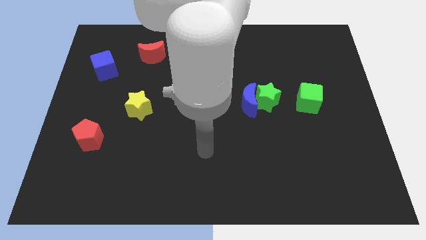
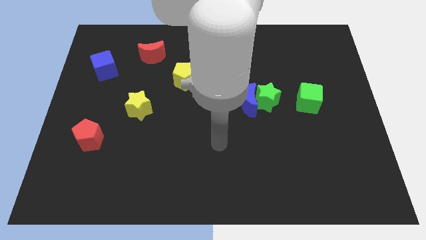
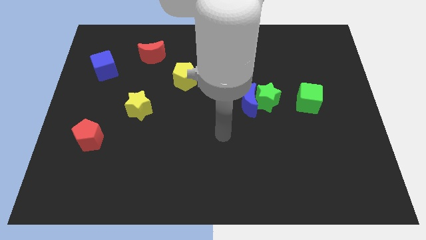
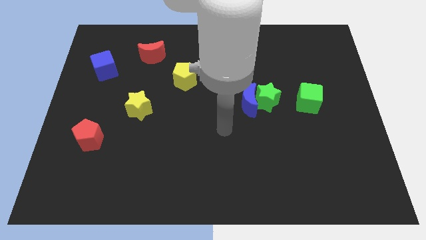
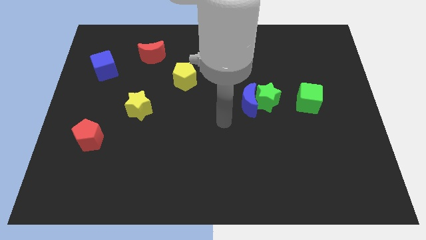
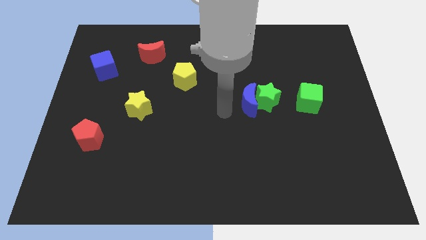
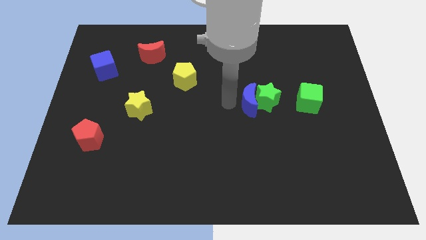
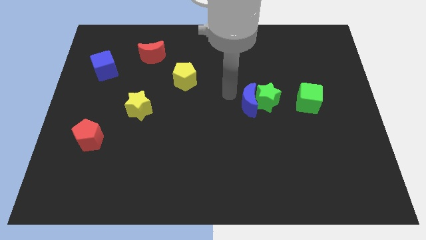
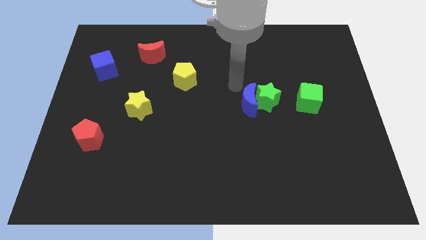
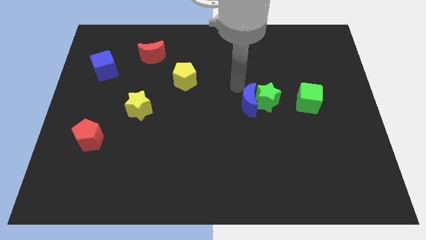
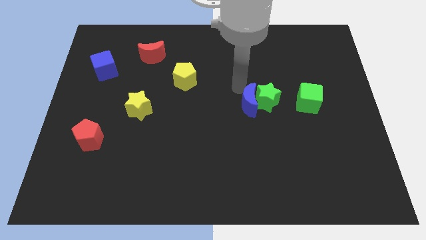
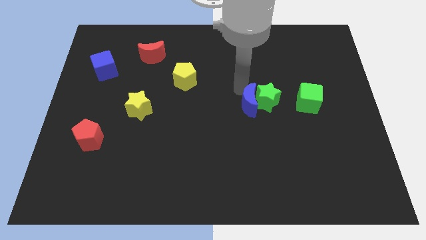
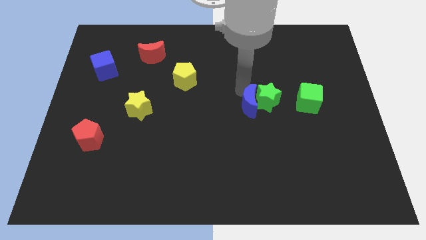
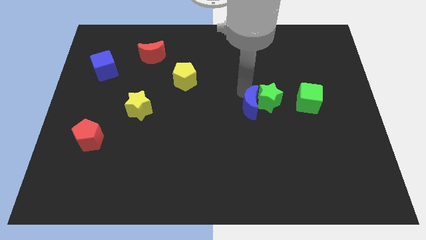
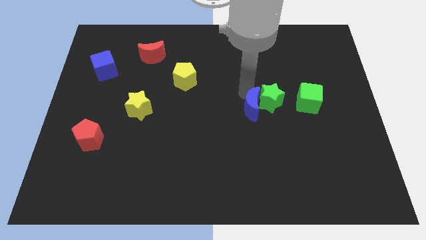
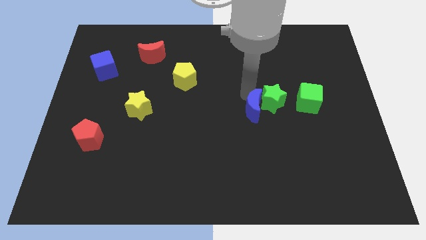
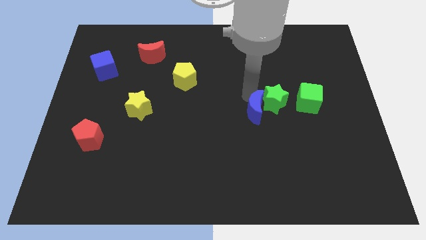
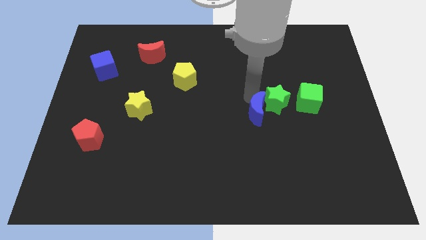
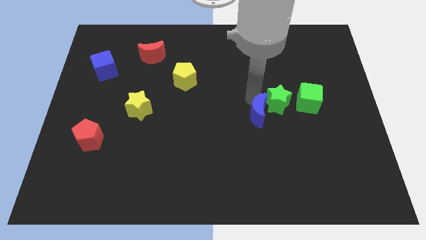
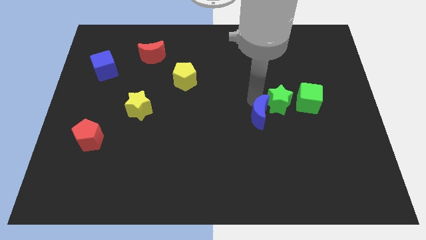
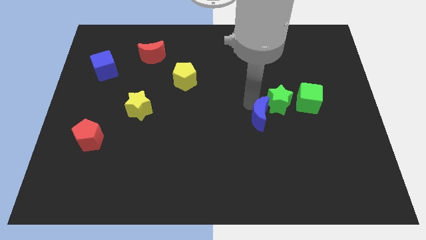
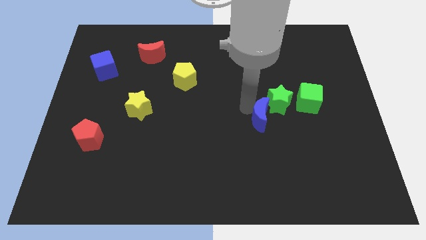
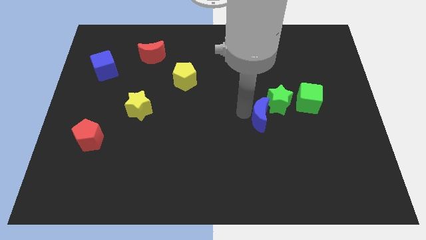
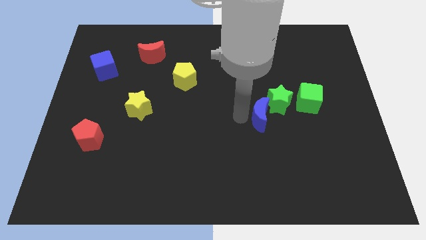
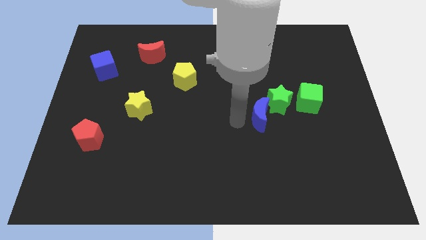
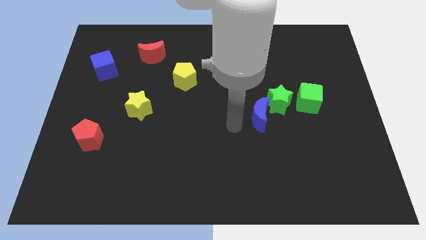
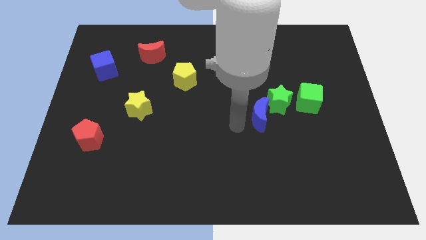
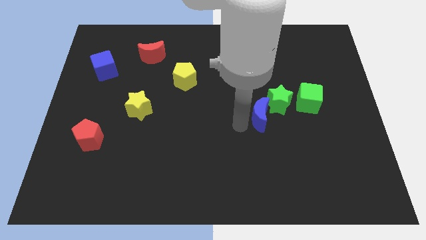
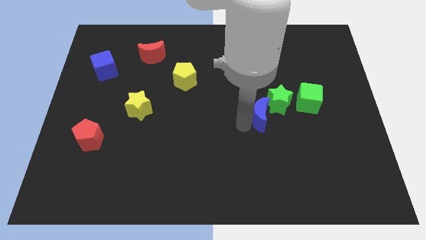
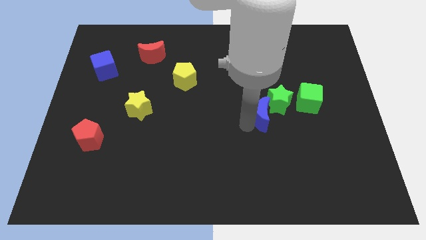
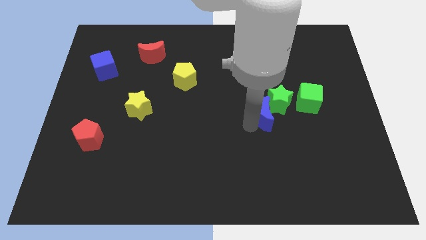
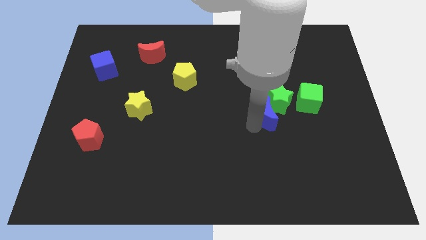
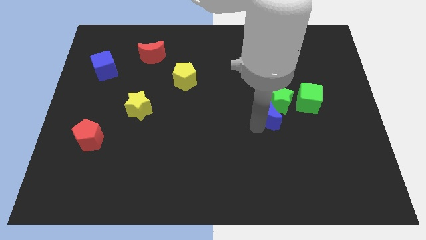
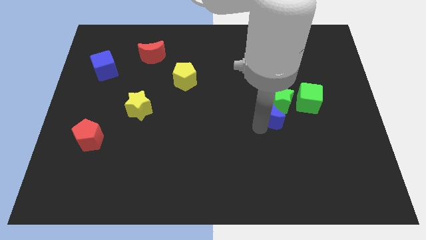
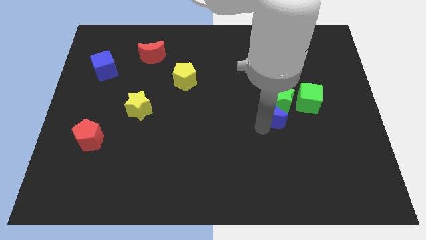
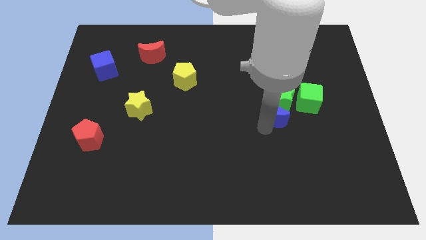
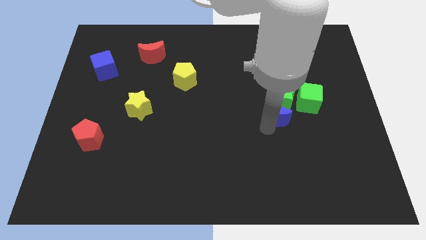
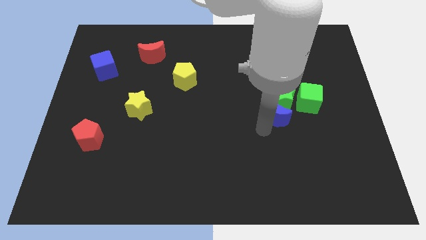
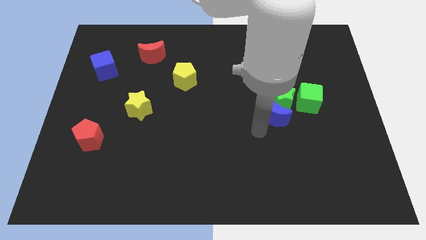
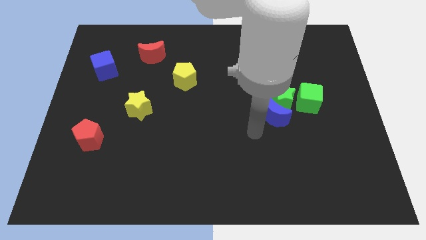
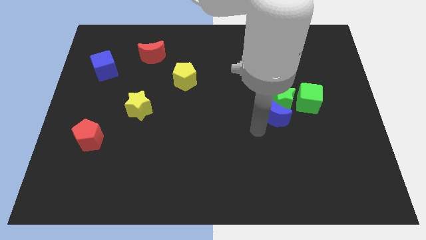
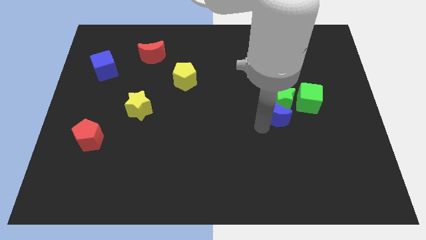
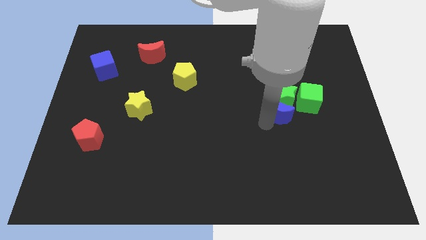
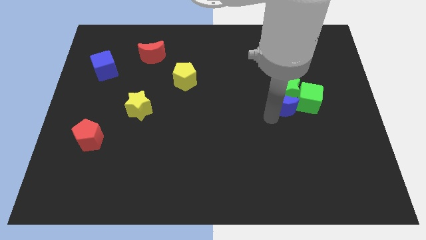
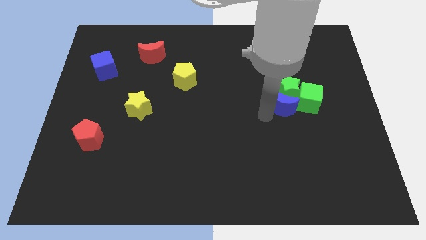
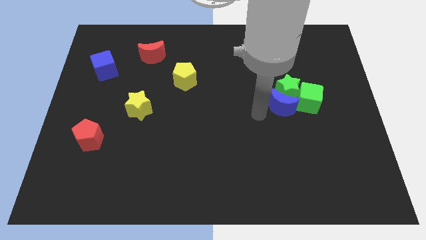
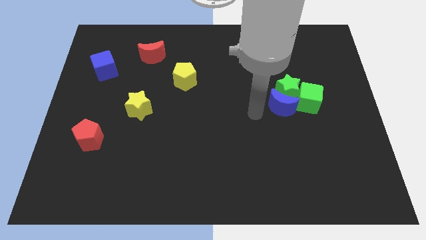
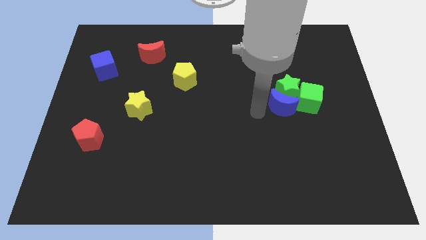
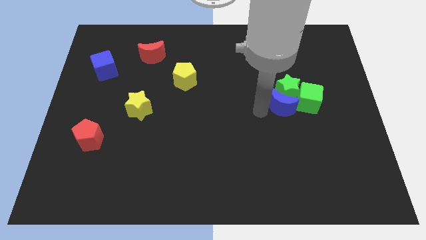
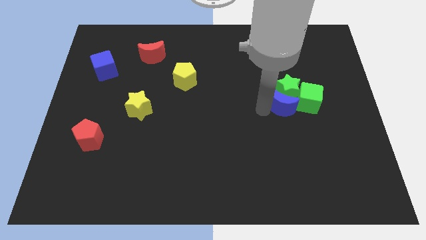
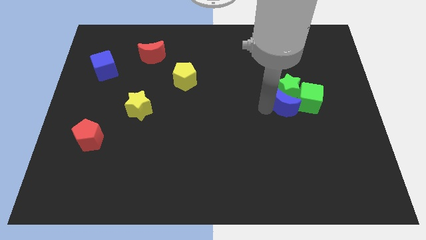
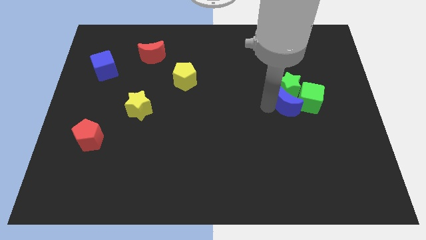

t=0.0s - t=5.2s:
put the blue moon close to the green cube
